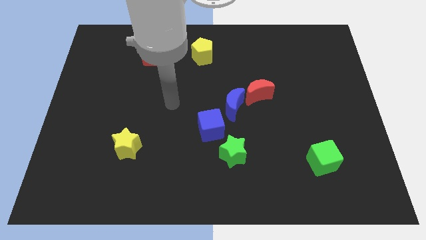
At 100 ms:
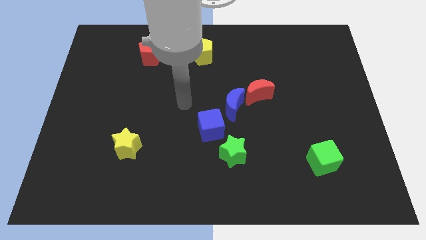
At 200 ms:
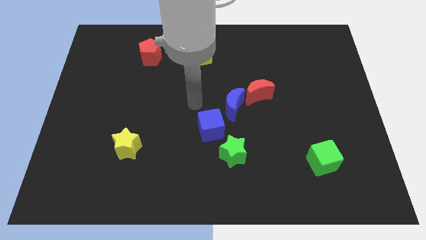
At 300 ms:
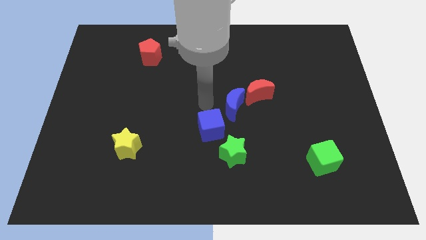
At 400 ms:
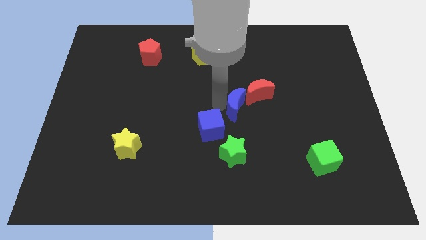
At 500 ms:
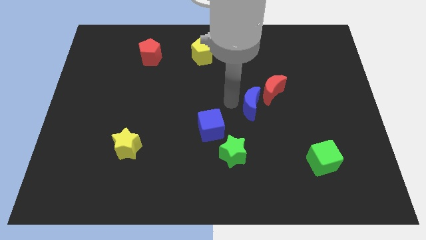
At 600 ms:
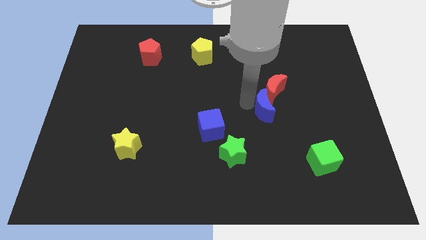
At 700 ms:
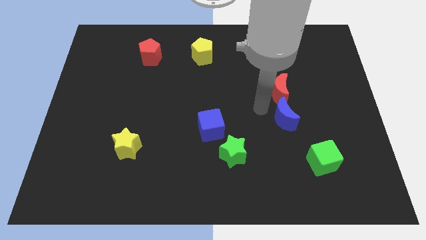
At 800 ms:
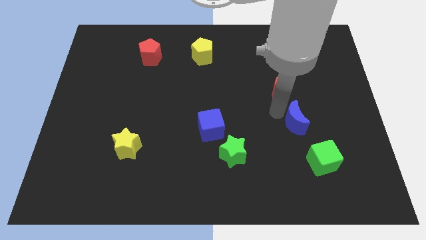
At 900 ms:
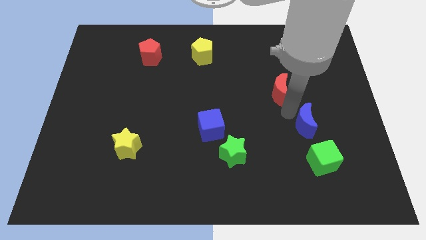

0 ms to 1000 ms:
move the red moon away from the blue moon

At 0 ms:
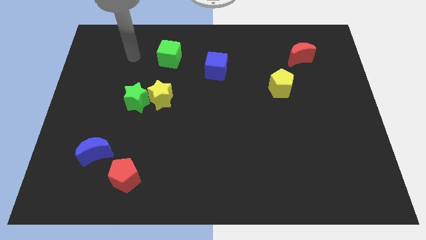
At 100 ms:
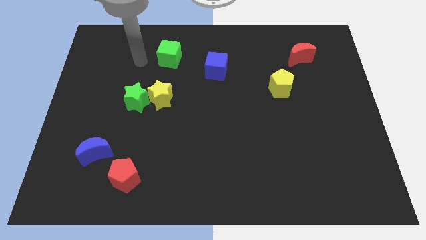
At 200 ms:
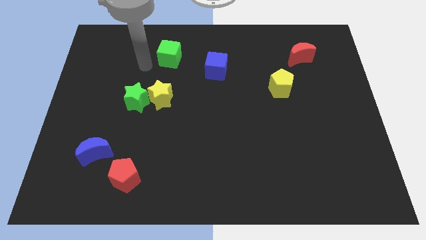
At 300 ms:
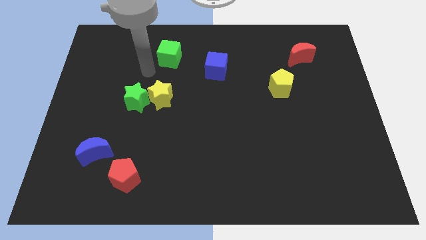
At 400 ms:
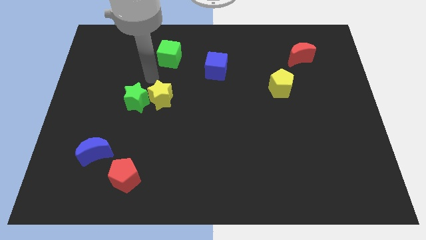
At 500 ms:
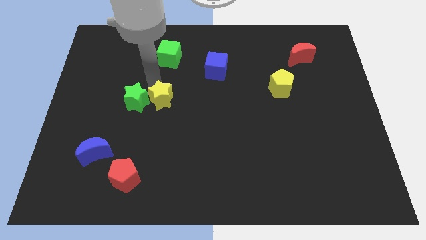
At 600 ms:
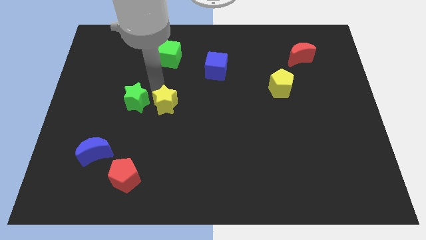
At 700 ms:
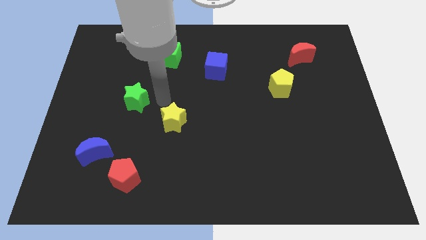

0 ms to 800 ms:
move the green star away from the yellow star

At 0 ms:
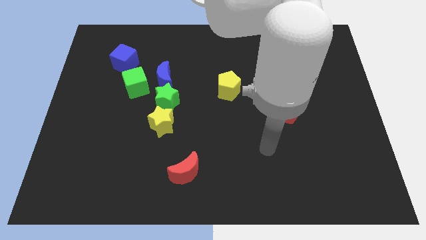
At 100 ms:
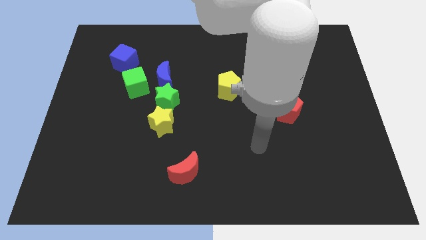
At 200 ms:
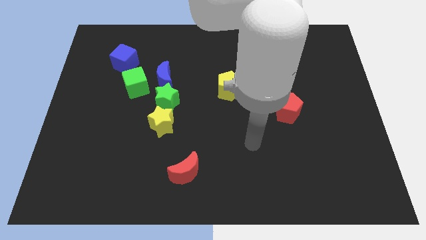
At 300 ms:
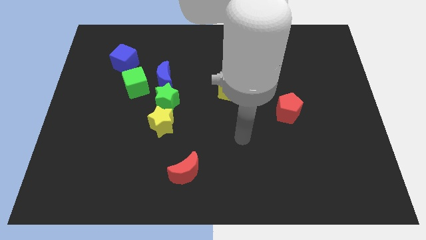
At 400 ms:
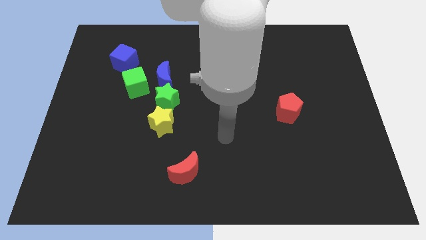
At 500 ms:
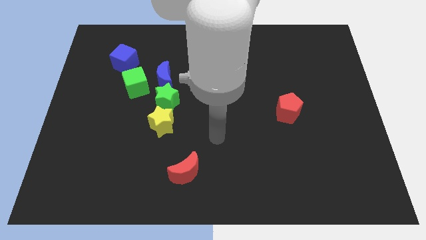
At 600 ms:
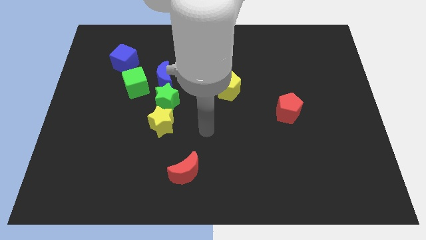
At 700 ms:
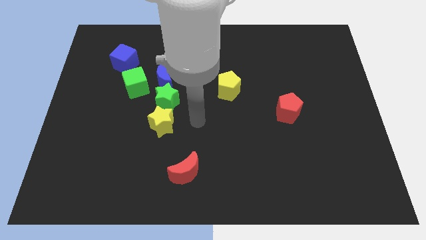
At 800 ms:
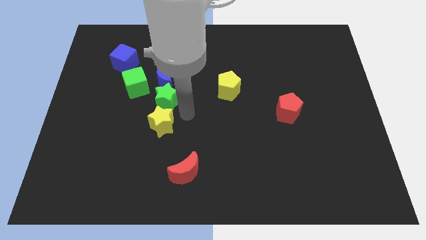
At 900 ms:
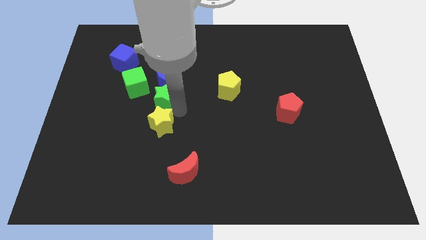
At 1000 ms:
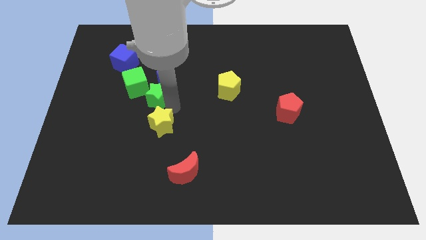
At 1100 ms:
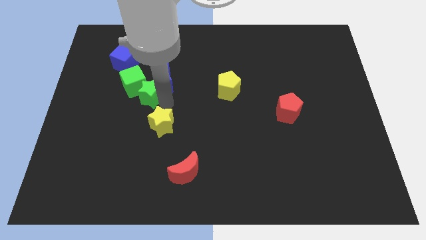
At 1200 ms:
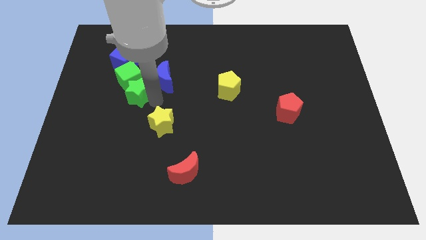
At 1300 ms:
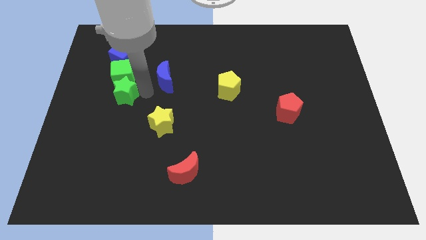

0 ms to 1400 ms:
move the blue moon away from the green star and green cube

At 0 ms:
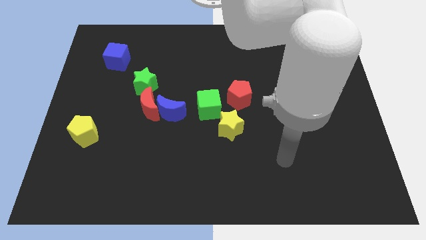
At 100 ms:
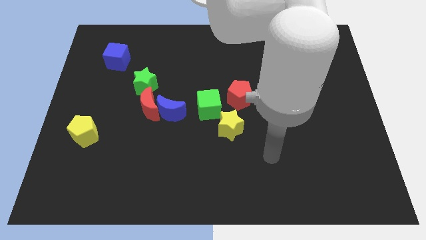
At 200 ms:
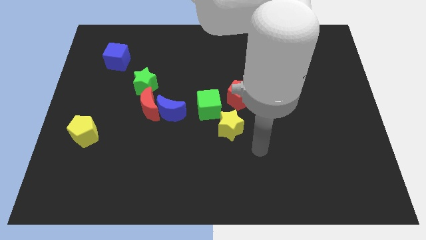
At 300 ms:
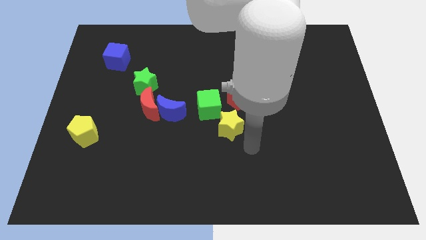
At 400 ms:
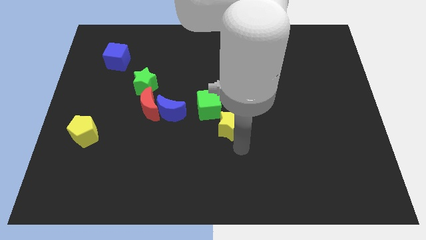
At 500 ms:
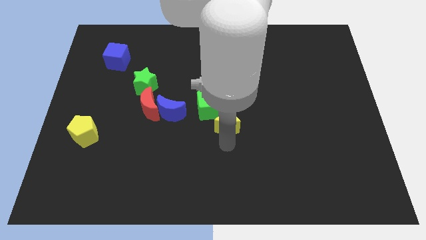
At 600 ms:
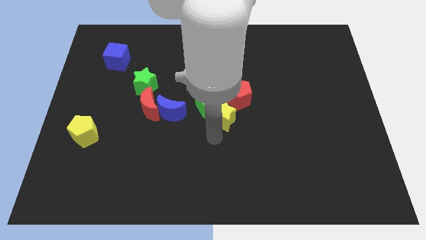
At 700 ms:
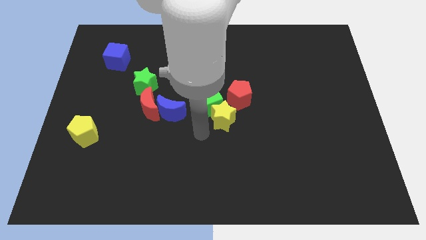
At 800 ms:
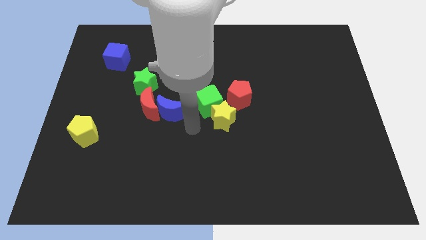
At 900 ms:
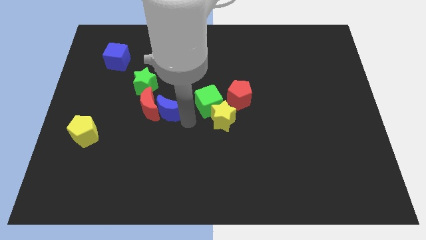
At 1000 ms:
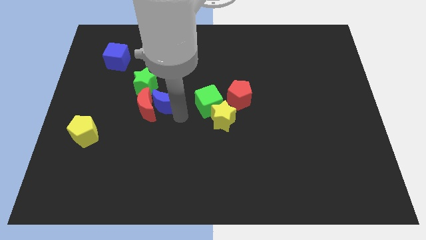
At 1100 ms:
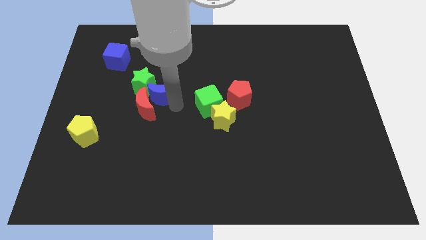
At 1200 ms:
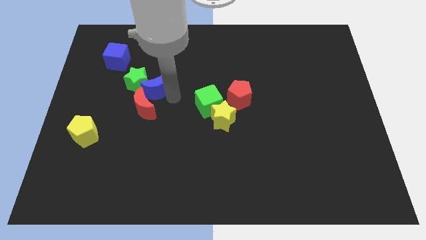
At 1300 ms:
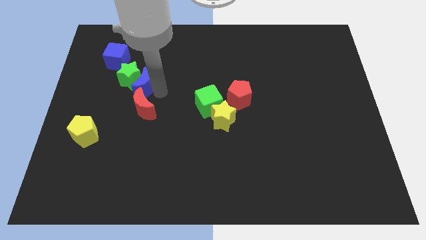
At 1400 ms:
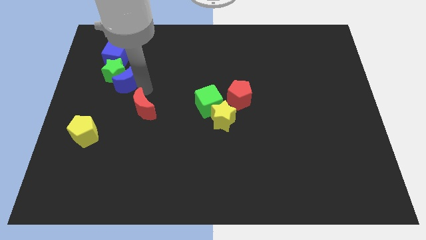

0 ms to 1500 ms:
move the red moon away from the blue moon and green star

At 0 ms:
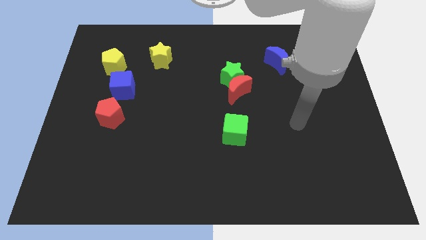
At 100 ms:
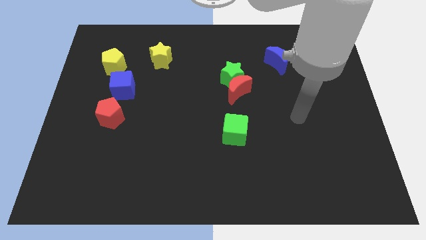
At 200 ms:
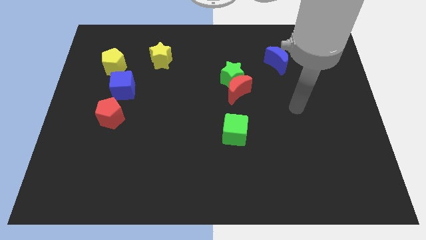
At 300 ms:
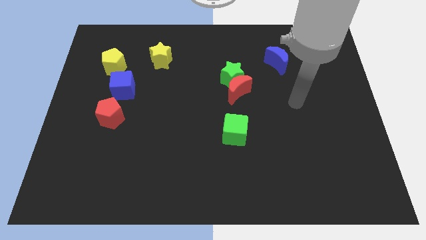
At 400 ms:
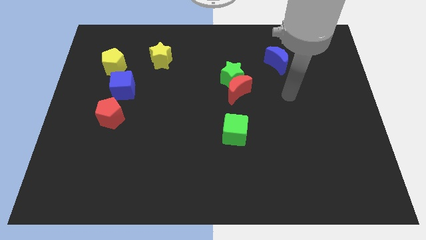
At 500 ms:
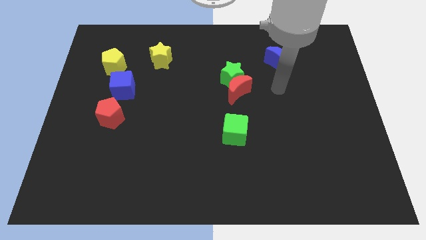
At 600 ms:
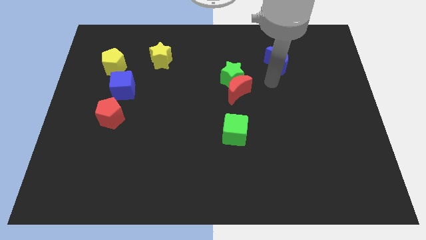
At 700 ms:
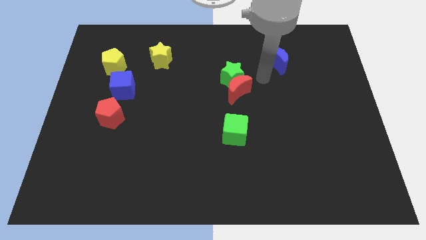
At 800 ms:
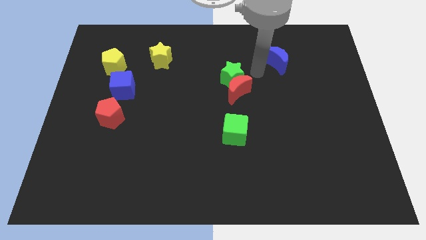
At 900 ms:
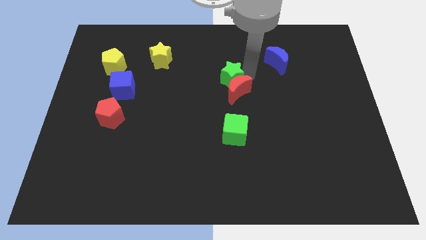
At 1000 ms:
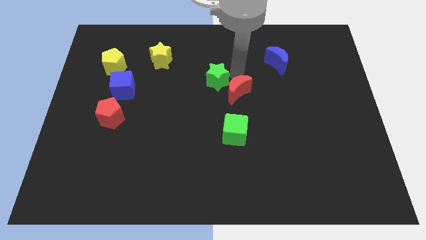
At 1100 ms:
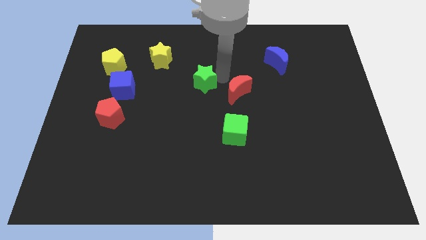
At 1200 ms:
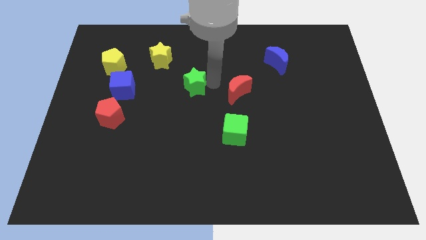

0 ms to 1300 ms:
move the red moon away from the green star

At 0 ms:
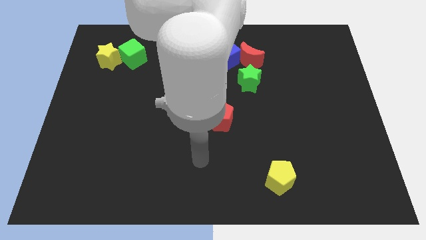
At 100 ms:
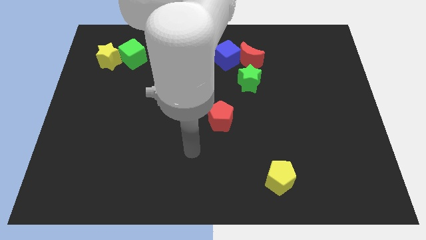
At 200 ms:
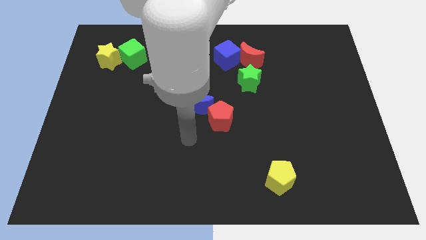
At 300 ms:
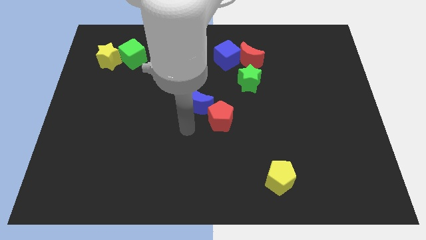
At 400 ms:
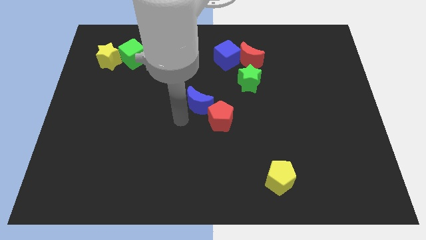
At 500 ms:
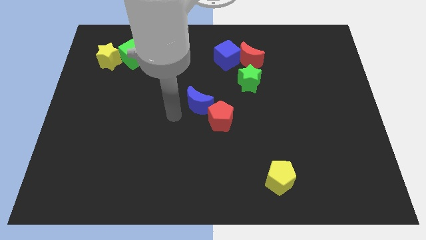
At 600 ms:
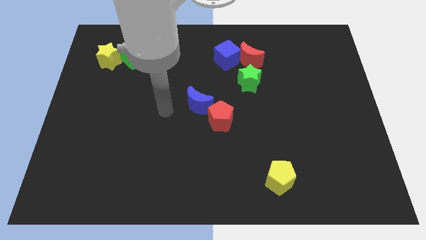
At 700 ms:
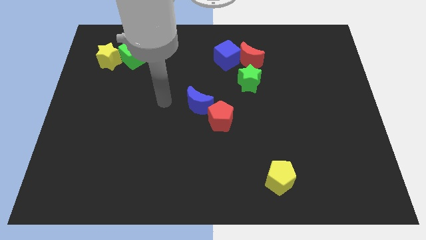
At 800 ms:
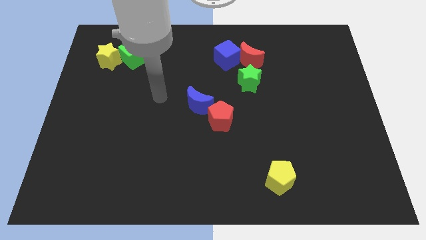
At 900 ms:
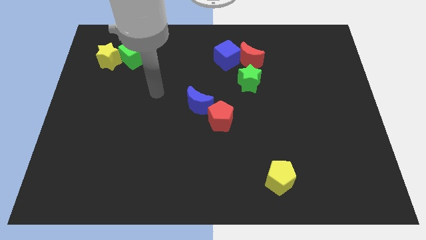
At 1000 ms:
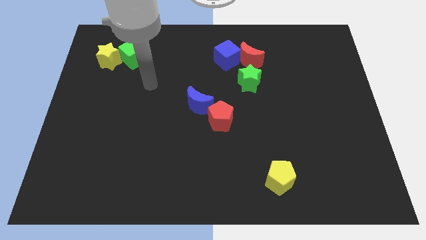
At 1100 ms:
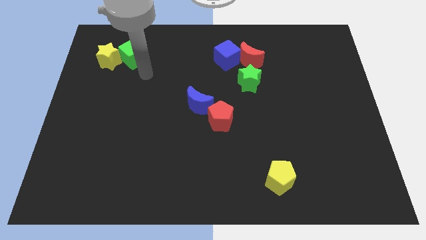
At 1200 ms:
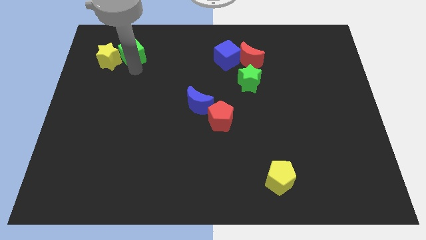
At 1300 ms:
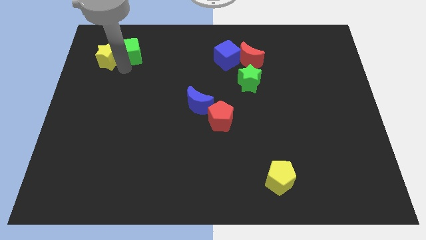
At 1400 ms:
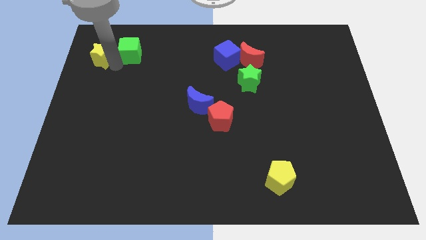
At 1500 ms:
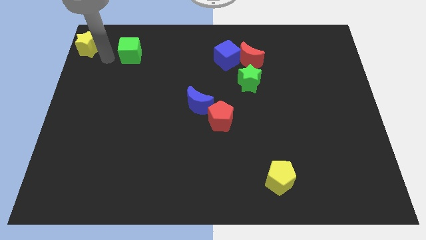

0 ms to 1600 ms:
move the green cube away from the yellow star

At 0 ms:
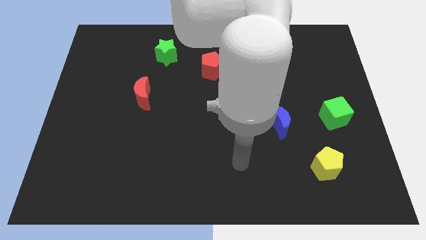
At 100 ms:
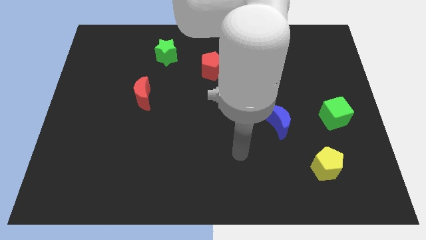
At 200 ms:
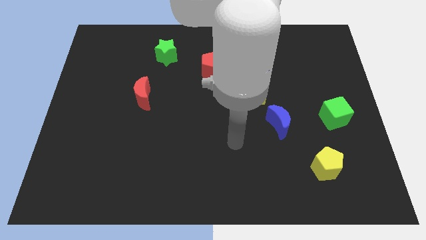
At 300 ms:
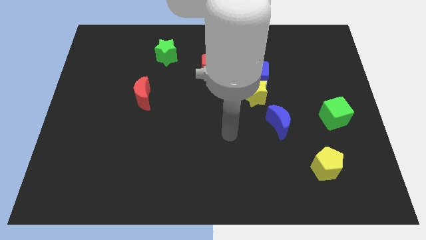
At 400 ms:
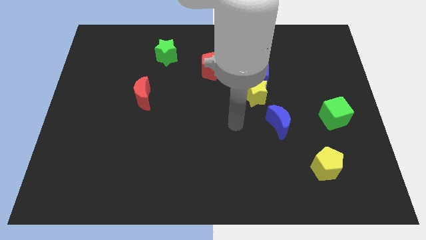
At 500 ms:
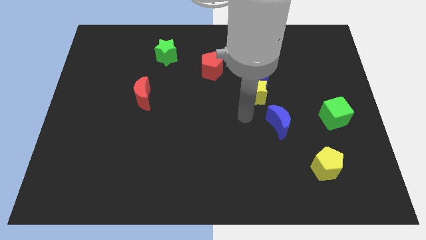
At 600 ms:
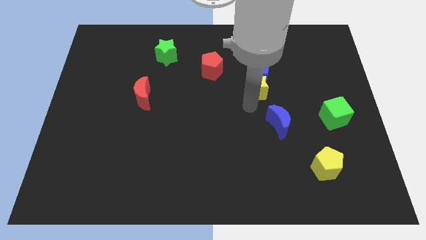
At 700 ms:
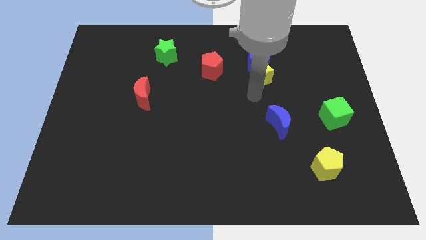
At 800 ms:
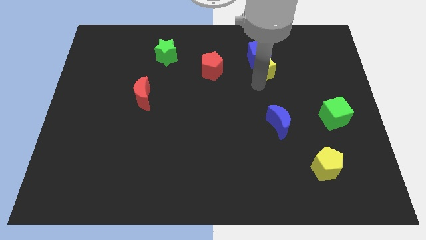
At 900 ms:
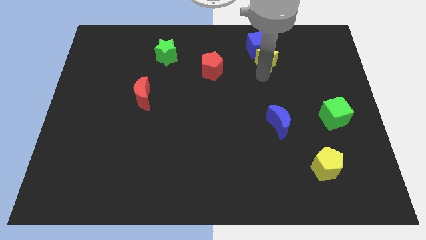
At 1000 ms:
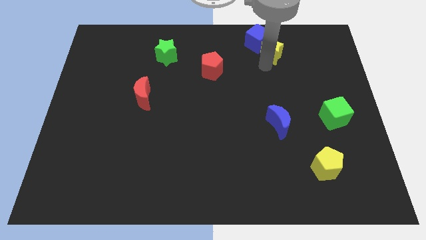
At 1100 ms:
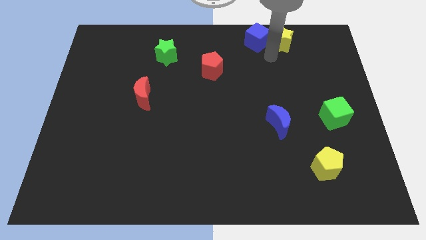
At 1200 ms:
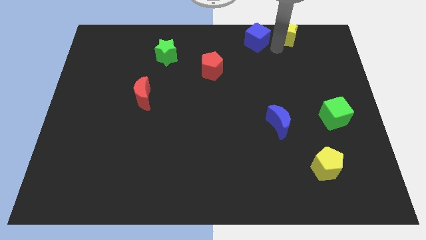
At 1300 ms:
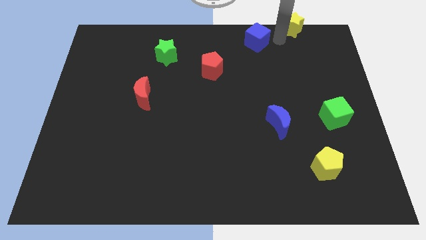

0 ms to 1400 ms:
move the blue cube away from the yellow star

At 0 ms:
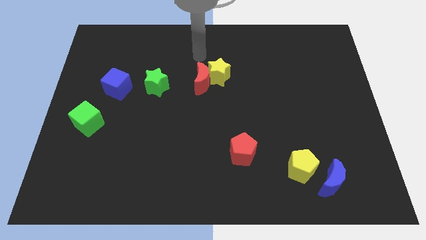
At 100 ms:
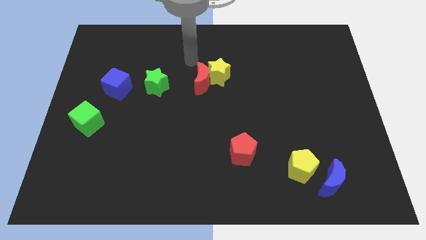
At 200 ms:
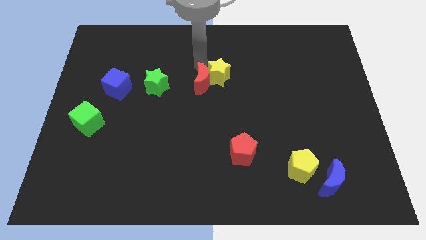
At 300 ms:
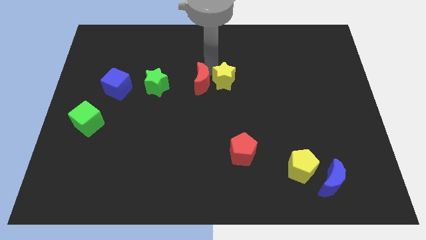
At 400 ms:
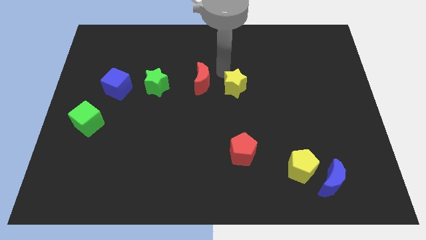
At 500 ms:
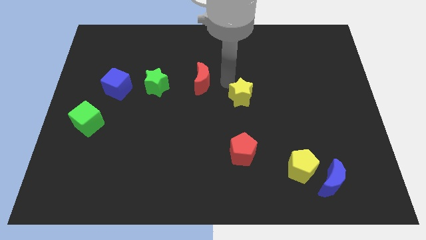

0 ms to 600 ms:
move the red moon away from the yellow star
